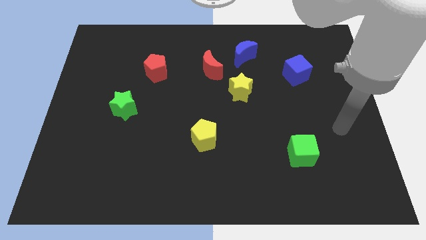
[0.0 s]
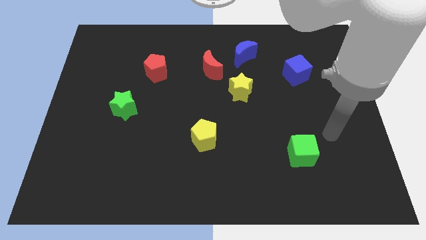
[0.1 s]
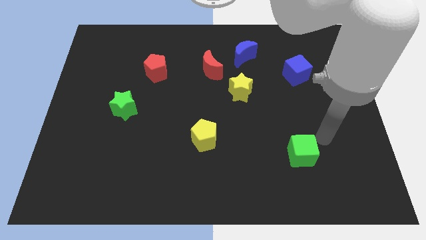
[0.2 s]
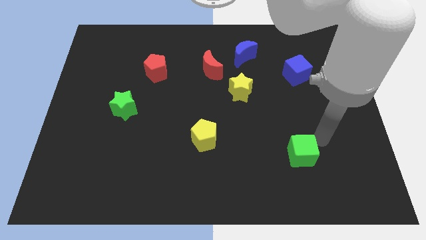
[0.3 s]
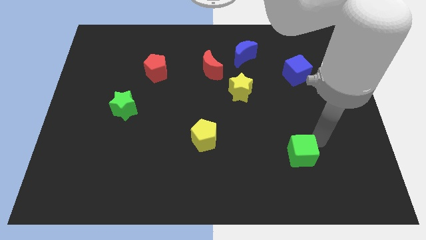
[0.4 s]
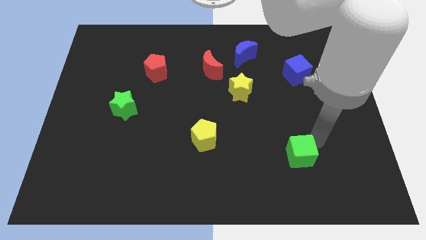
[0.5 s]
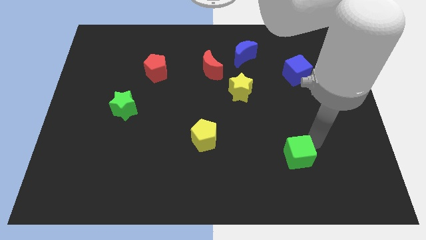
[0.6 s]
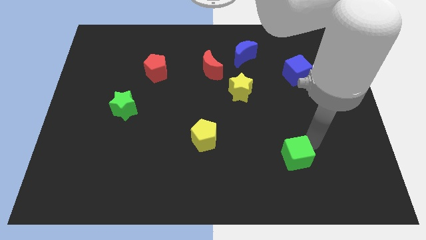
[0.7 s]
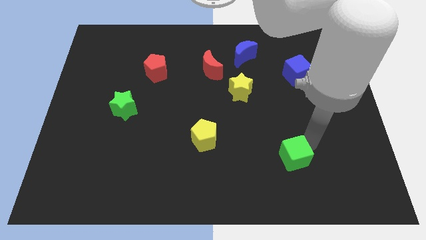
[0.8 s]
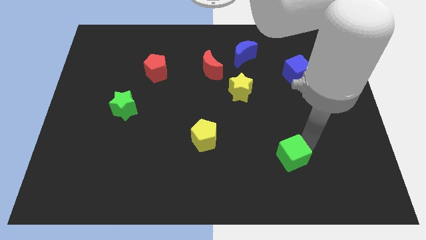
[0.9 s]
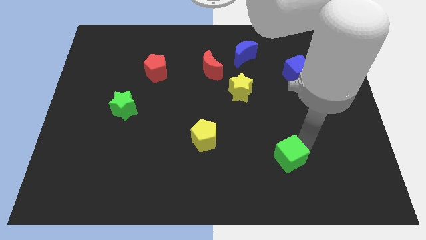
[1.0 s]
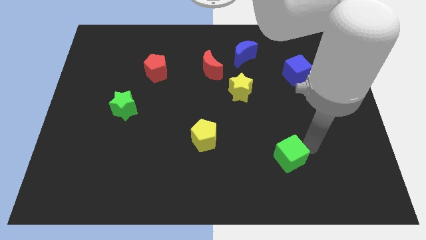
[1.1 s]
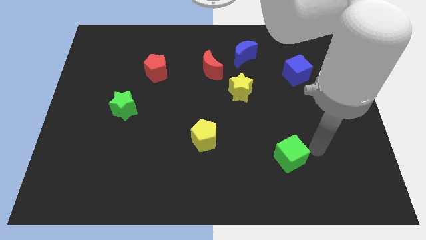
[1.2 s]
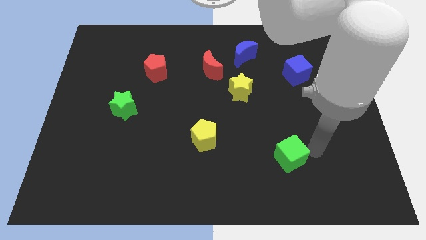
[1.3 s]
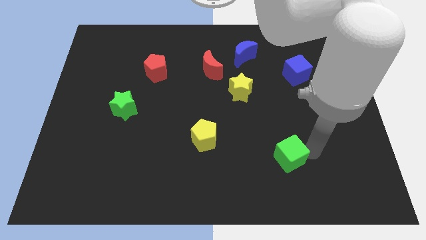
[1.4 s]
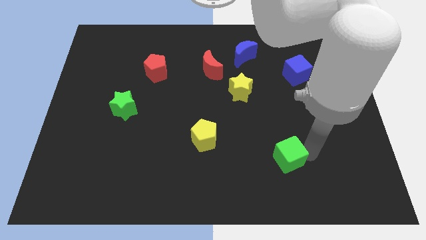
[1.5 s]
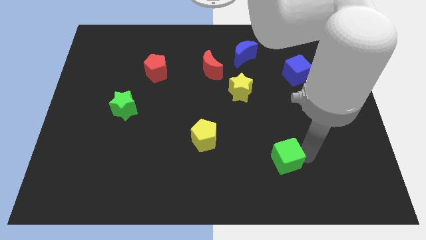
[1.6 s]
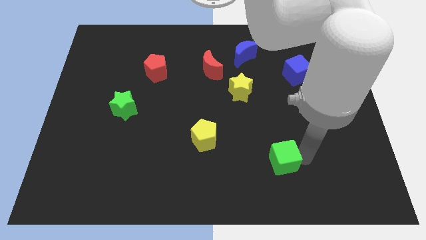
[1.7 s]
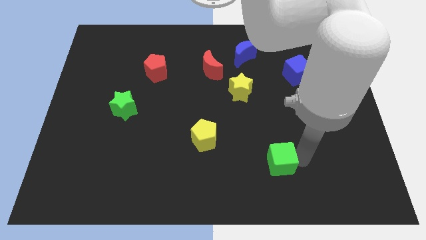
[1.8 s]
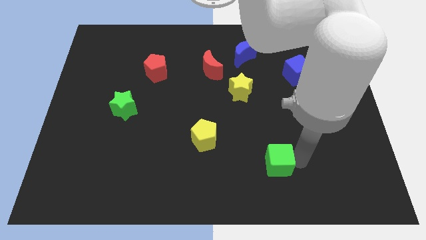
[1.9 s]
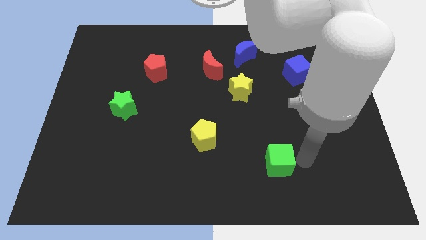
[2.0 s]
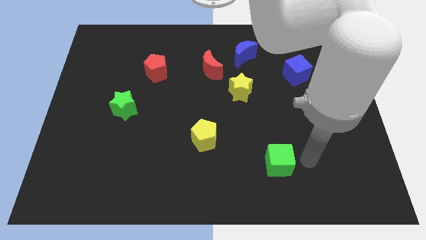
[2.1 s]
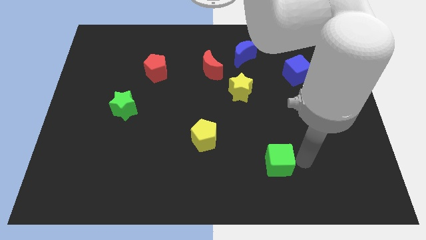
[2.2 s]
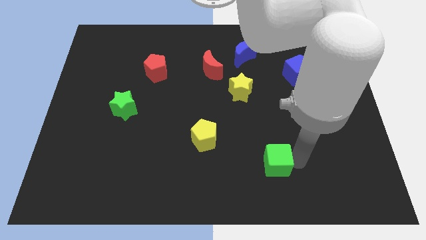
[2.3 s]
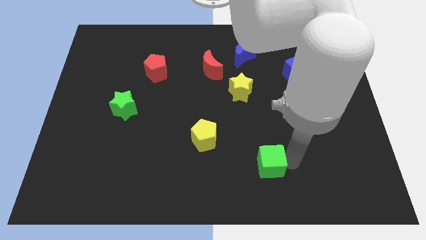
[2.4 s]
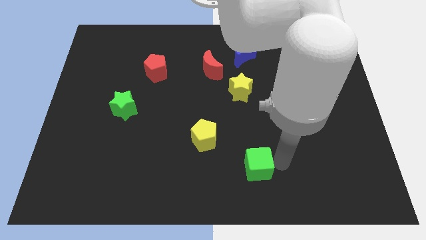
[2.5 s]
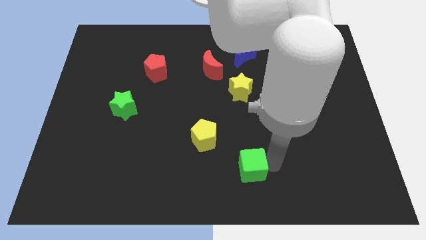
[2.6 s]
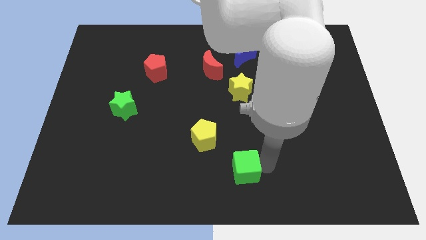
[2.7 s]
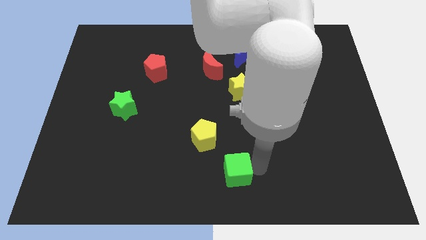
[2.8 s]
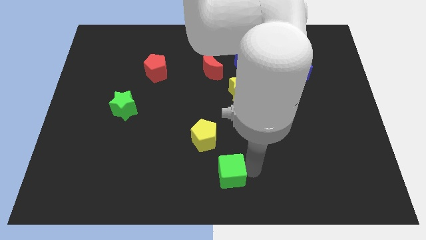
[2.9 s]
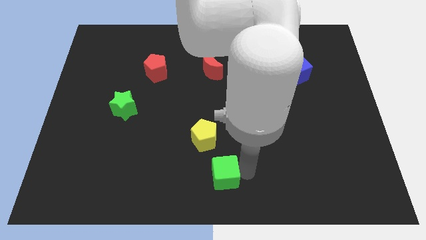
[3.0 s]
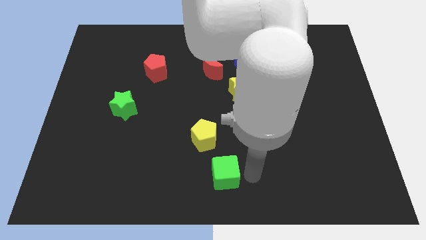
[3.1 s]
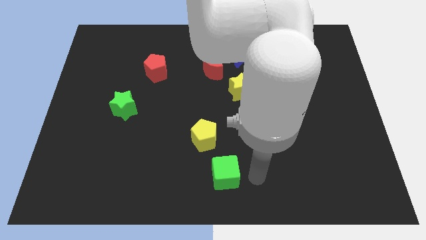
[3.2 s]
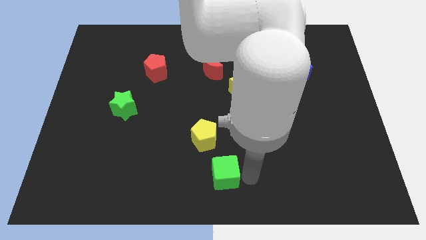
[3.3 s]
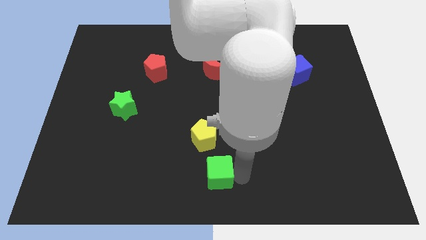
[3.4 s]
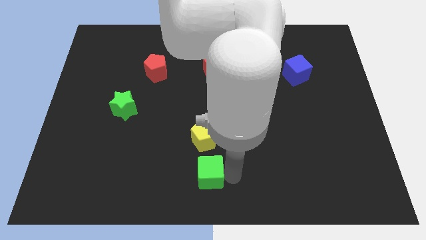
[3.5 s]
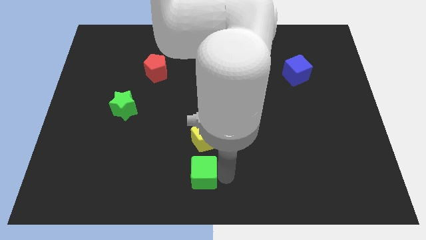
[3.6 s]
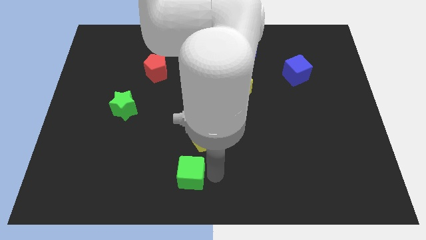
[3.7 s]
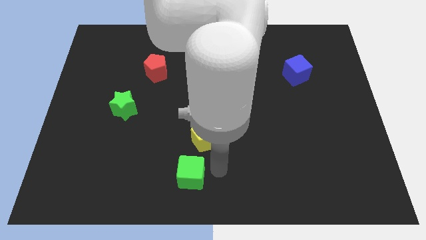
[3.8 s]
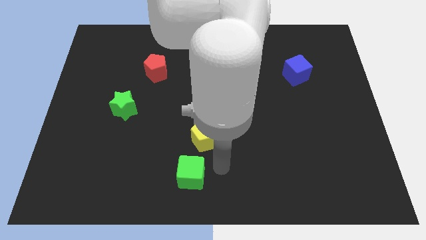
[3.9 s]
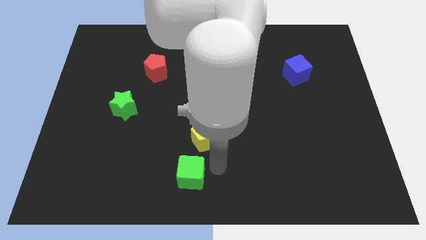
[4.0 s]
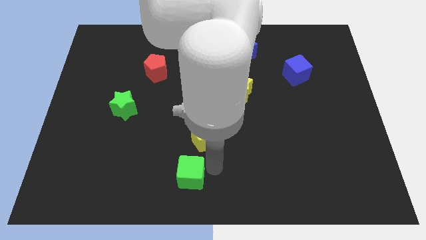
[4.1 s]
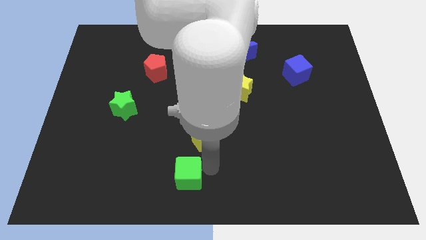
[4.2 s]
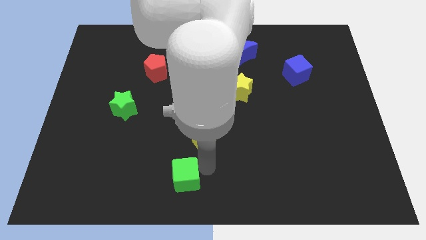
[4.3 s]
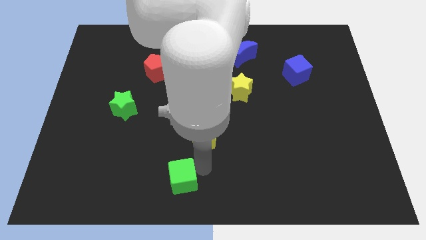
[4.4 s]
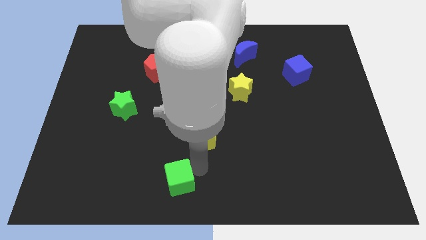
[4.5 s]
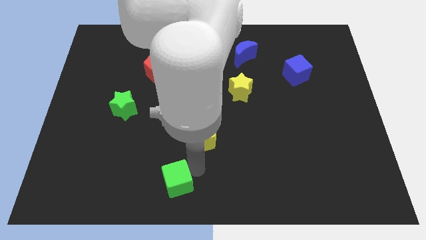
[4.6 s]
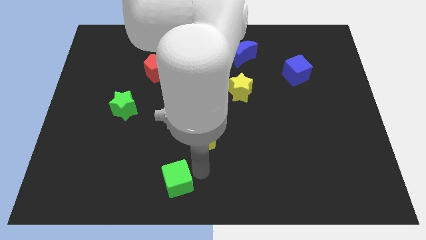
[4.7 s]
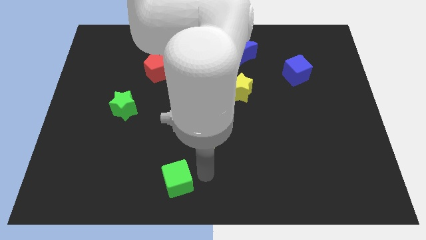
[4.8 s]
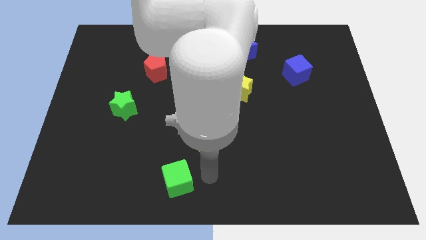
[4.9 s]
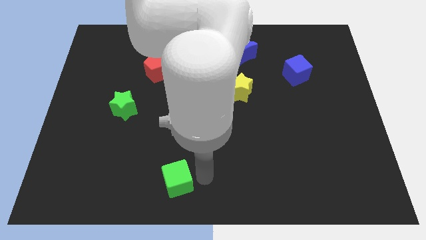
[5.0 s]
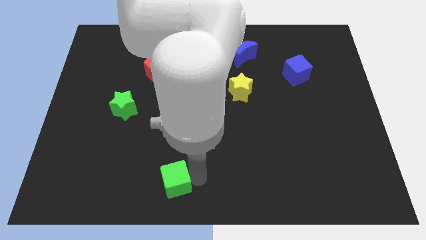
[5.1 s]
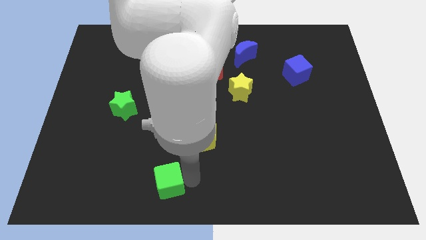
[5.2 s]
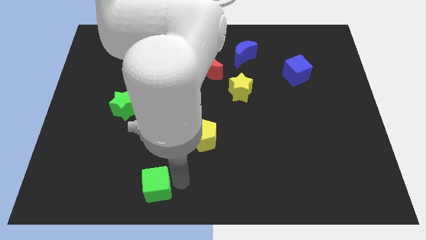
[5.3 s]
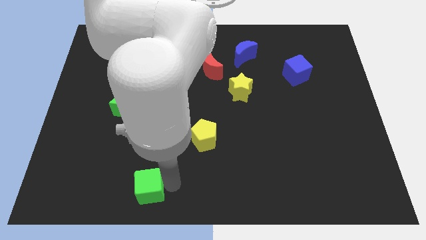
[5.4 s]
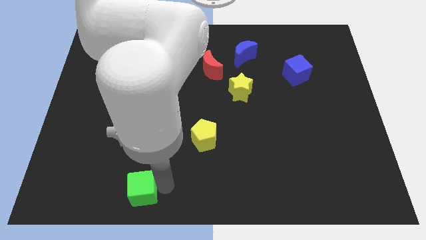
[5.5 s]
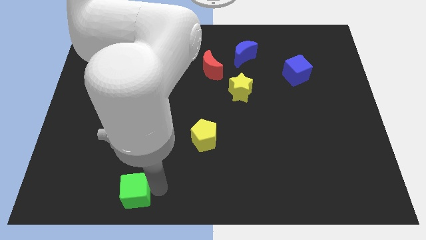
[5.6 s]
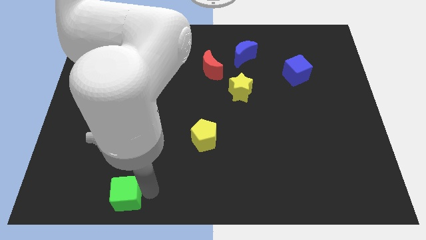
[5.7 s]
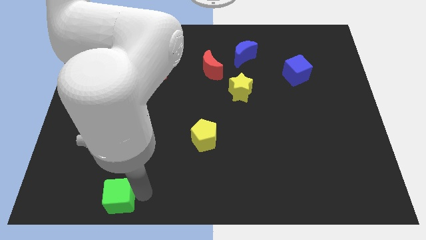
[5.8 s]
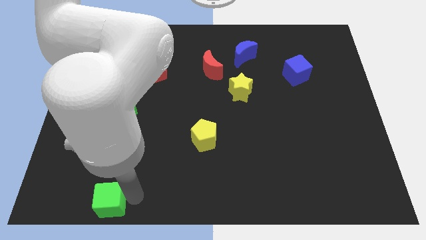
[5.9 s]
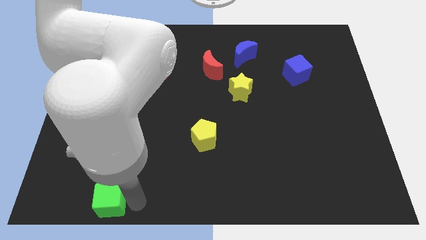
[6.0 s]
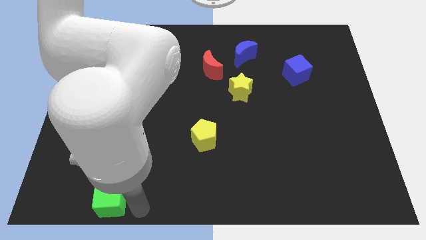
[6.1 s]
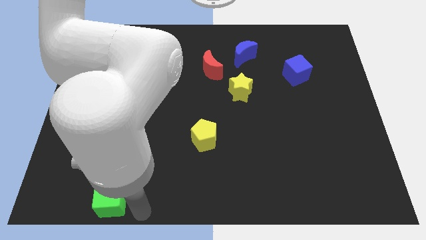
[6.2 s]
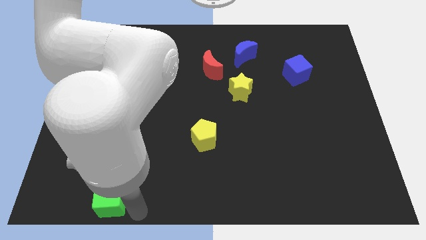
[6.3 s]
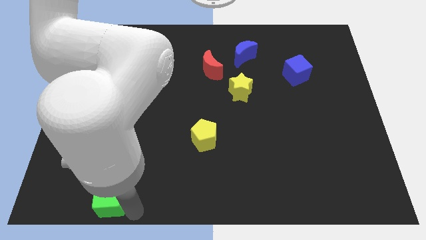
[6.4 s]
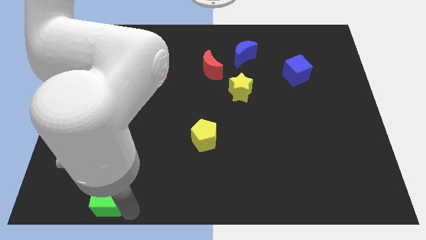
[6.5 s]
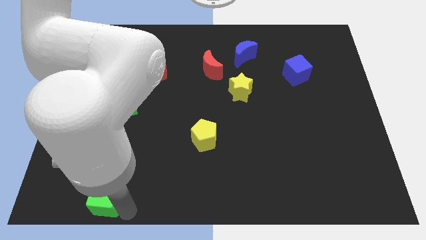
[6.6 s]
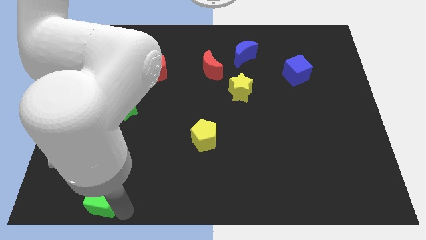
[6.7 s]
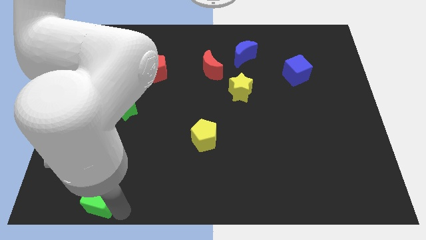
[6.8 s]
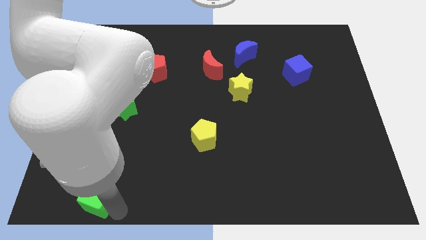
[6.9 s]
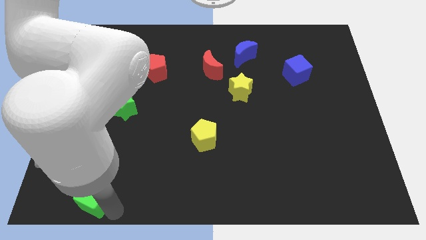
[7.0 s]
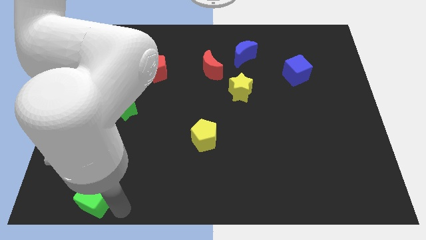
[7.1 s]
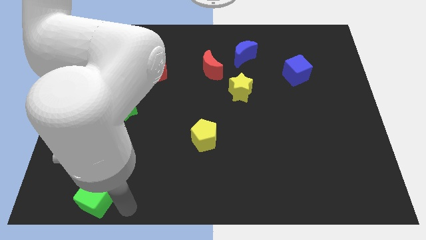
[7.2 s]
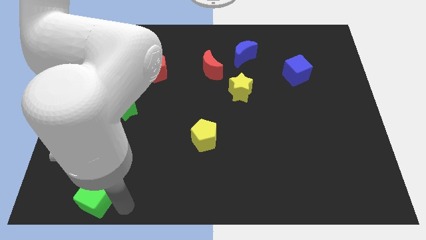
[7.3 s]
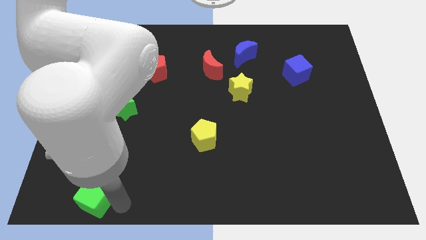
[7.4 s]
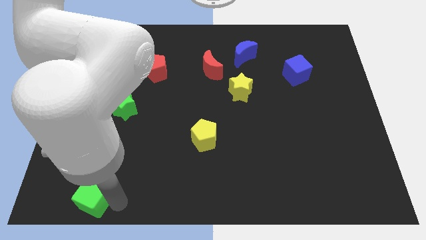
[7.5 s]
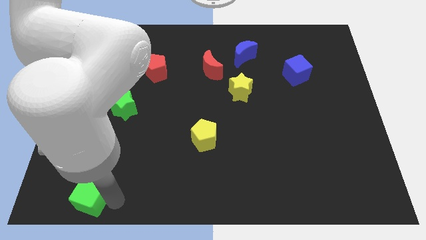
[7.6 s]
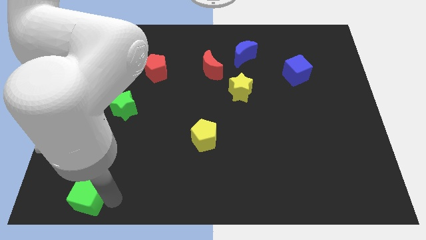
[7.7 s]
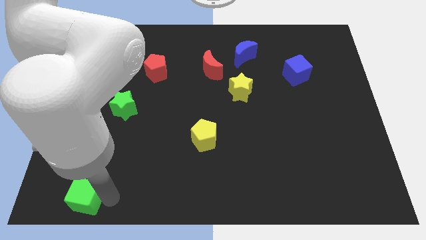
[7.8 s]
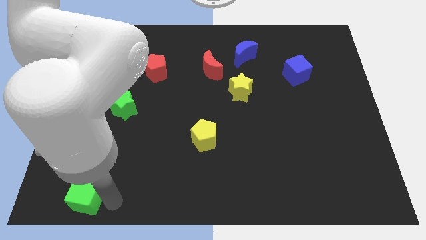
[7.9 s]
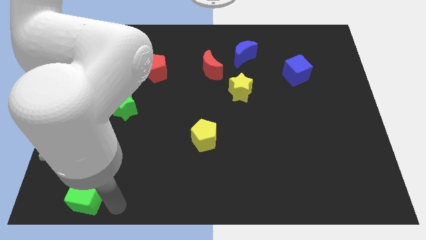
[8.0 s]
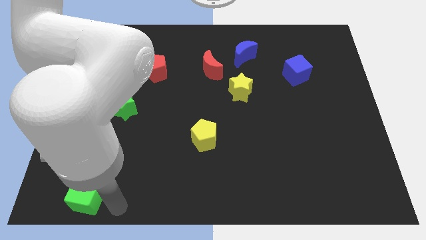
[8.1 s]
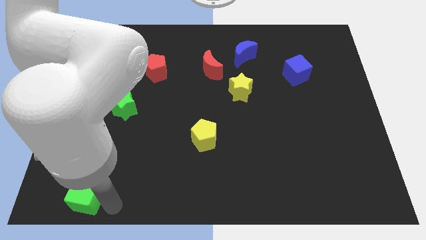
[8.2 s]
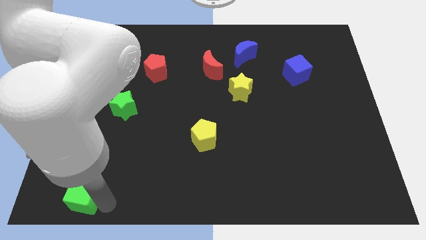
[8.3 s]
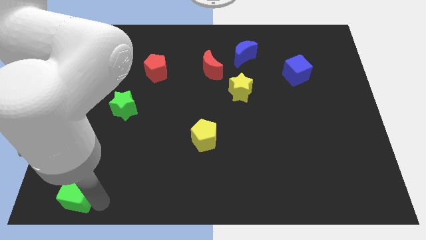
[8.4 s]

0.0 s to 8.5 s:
push the green cube to the bottom left corner
